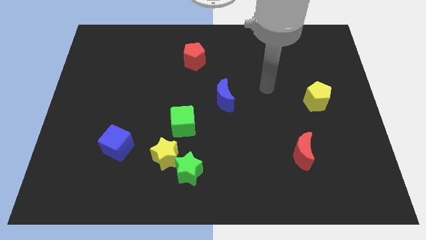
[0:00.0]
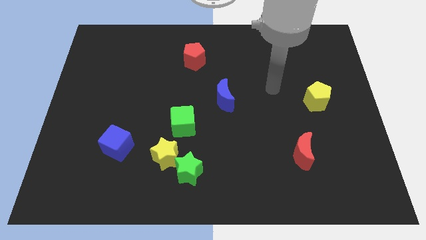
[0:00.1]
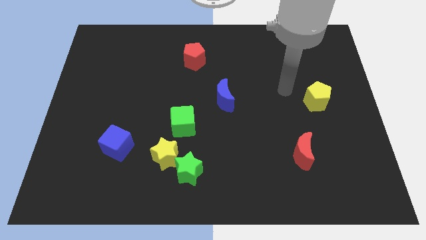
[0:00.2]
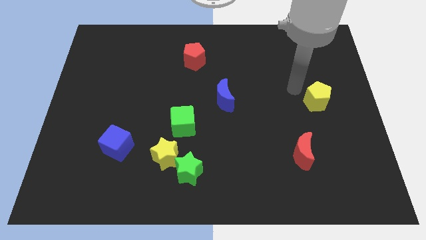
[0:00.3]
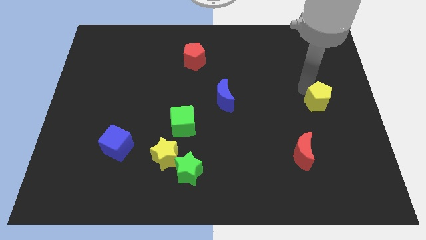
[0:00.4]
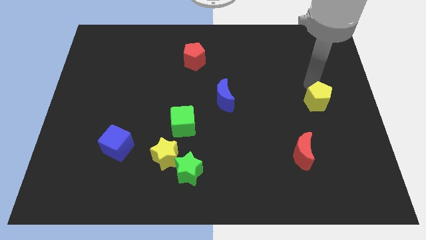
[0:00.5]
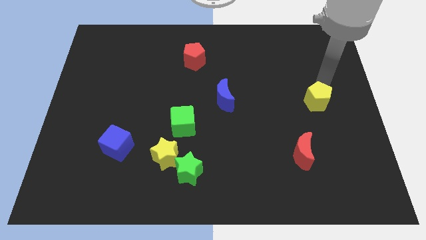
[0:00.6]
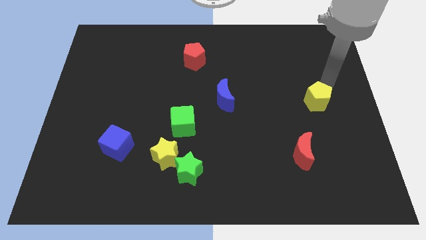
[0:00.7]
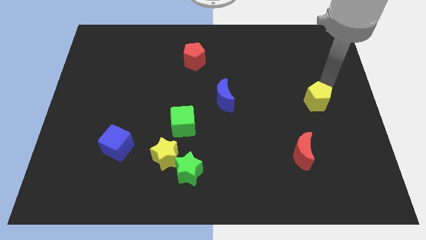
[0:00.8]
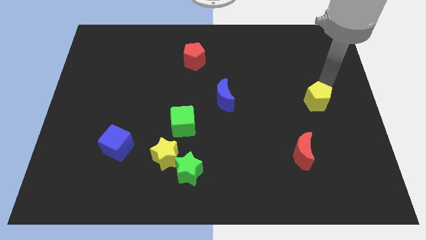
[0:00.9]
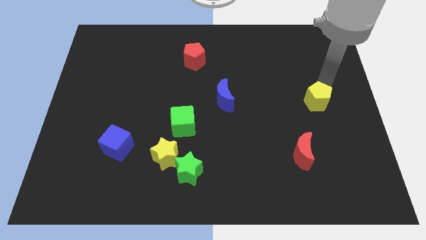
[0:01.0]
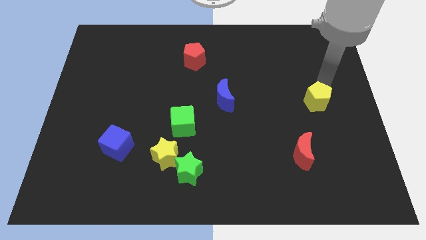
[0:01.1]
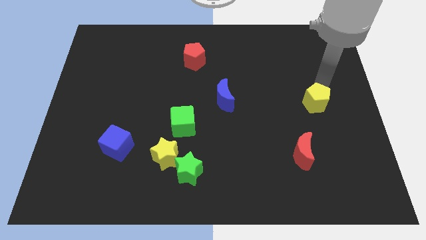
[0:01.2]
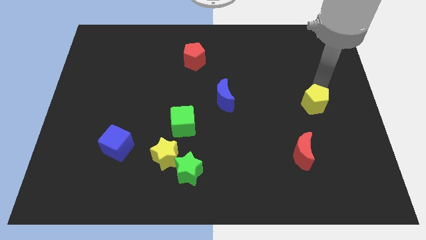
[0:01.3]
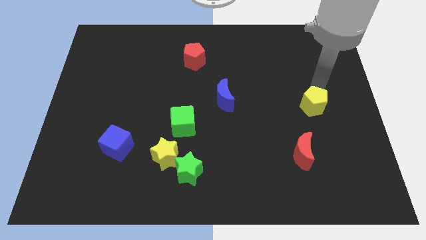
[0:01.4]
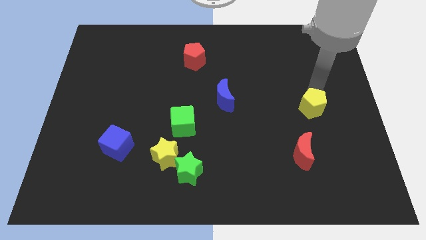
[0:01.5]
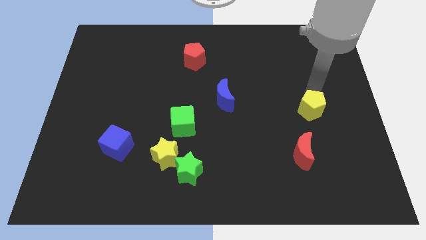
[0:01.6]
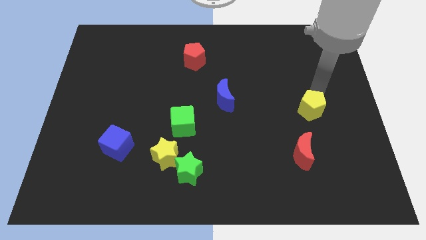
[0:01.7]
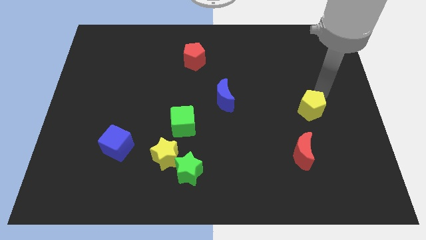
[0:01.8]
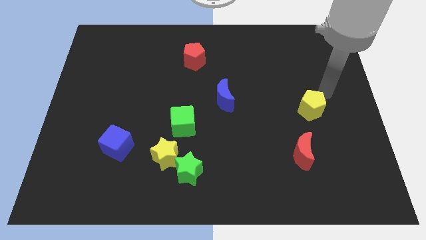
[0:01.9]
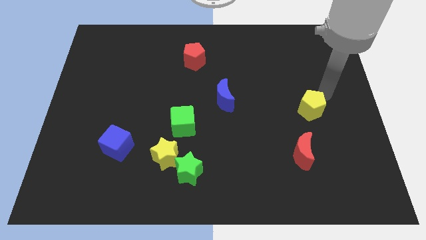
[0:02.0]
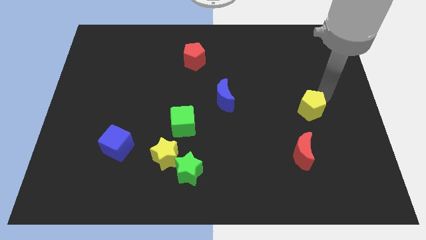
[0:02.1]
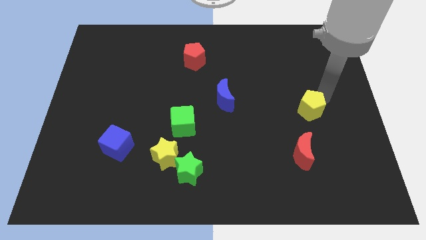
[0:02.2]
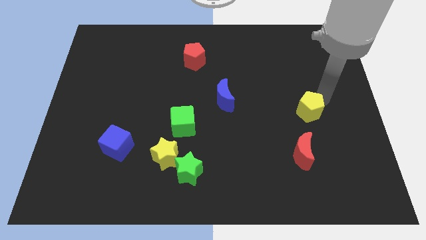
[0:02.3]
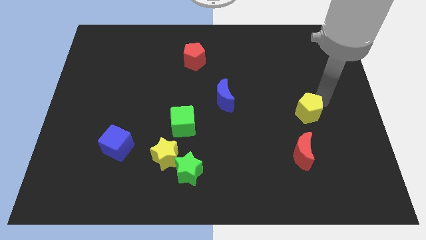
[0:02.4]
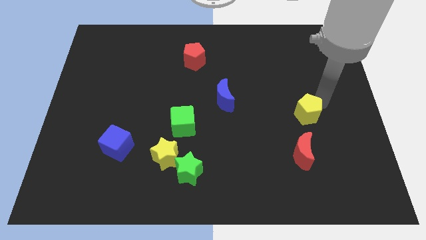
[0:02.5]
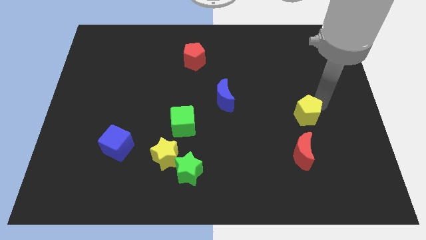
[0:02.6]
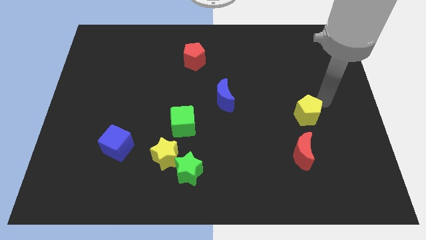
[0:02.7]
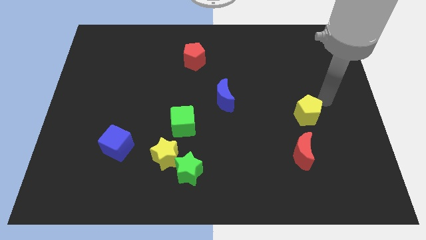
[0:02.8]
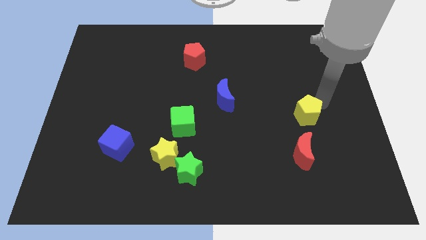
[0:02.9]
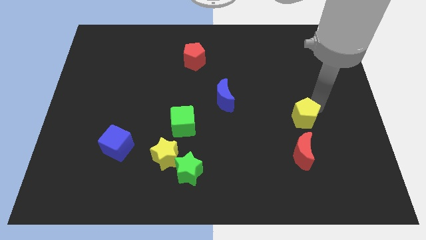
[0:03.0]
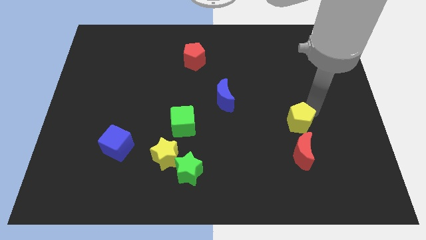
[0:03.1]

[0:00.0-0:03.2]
push the yellow pentagon down and left a little

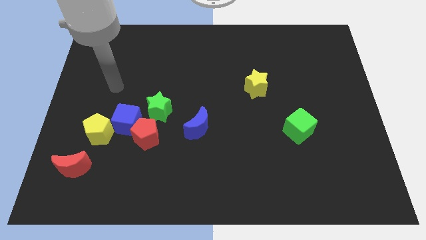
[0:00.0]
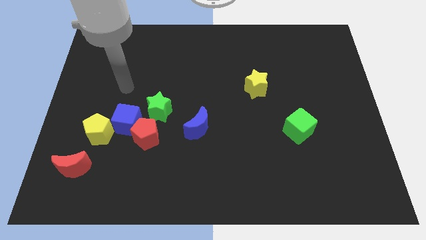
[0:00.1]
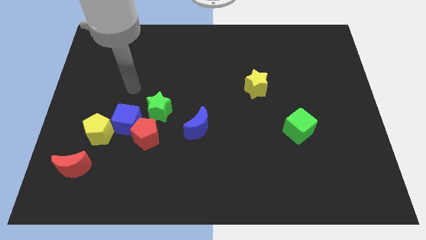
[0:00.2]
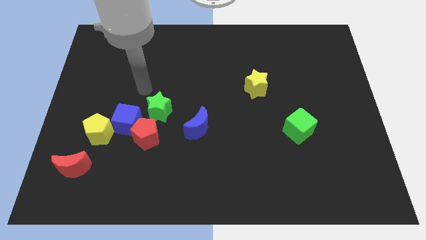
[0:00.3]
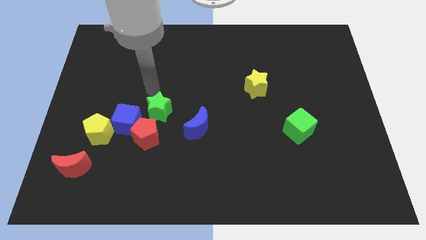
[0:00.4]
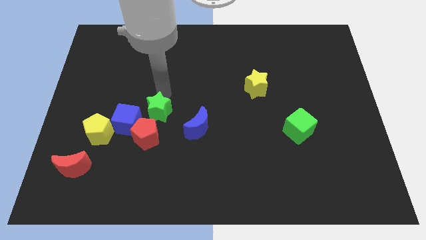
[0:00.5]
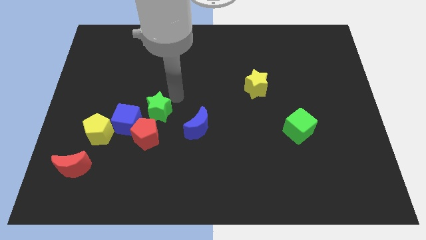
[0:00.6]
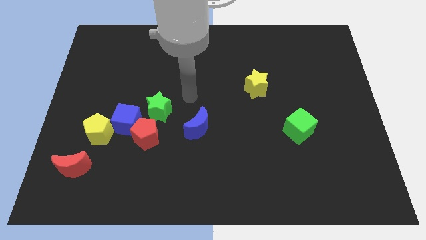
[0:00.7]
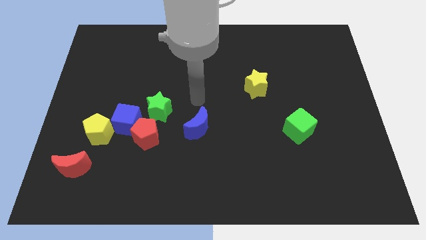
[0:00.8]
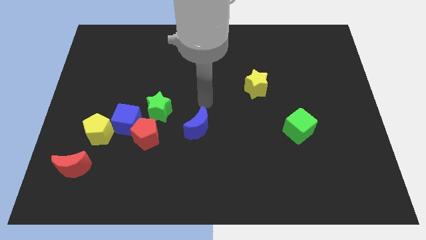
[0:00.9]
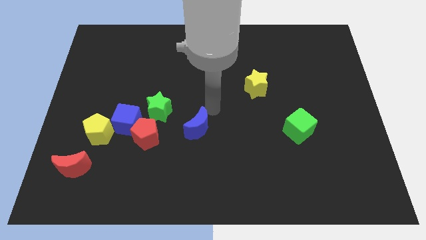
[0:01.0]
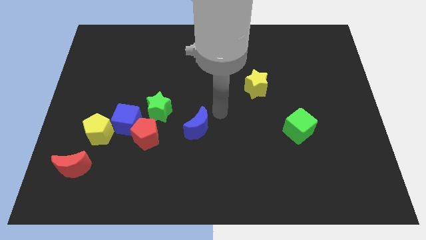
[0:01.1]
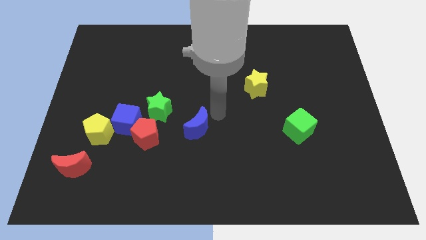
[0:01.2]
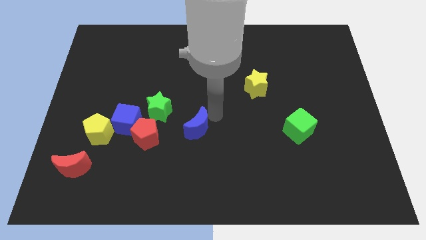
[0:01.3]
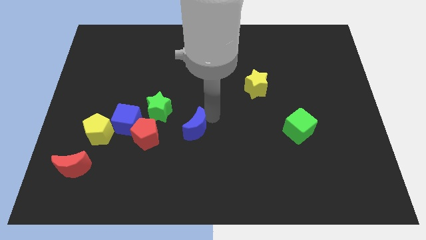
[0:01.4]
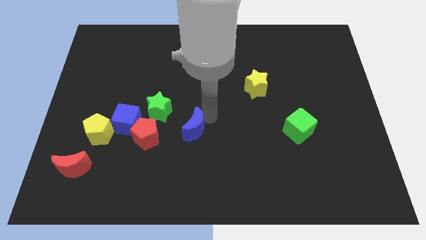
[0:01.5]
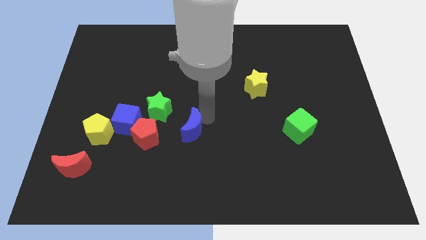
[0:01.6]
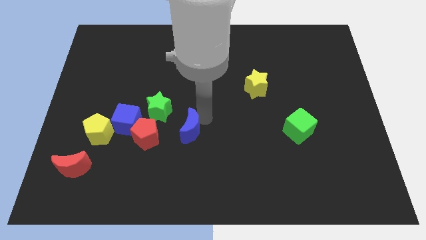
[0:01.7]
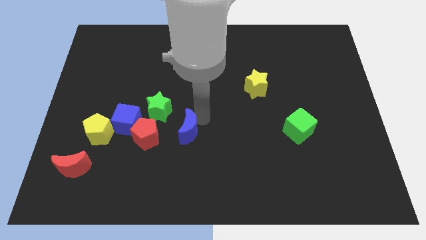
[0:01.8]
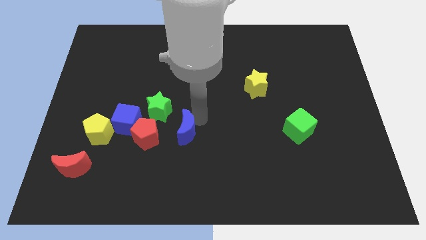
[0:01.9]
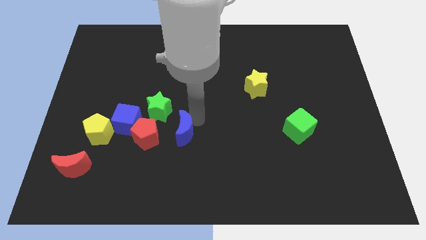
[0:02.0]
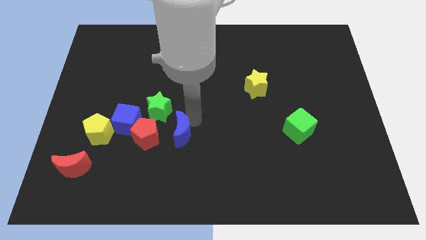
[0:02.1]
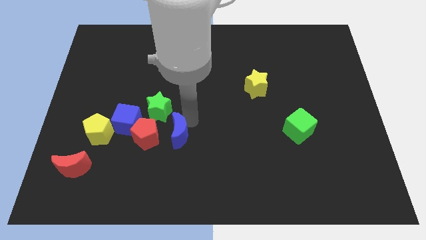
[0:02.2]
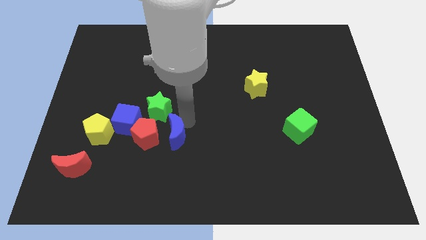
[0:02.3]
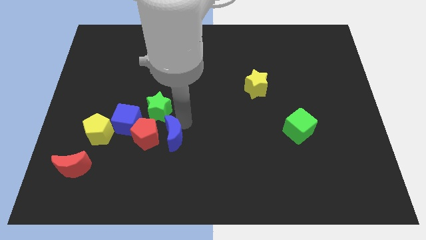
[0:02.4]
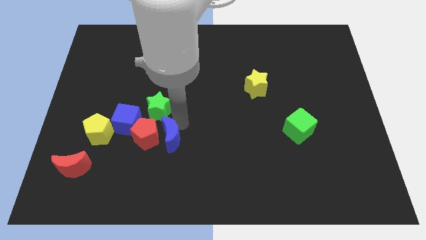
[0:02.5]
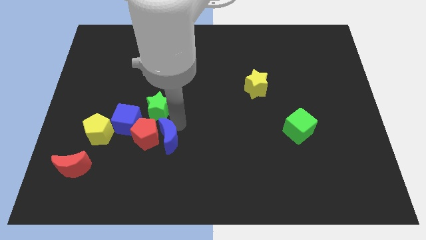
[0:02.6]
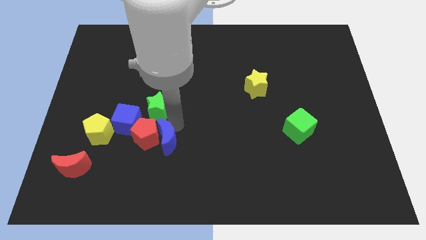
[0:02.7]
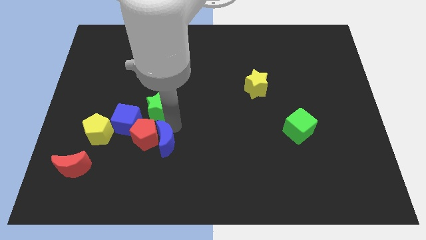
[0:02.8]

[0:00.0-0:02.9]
move the blue moon a little down and to the left

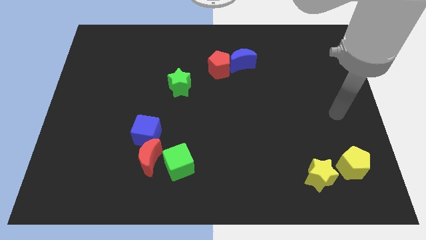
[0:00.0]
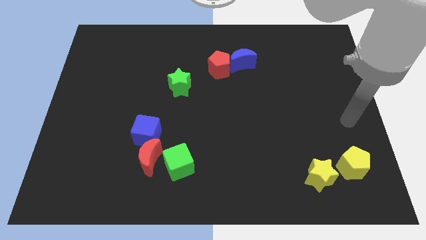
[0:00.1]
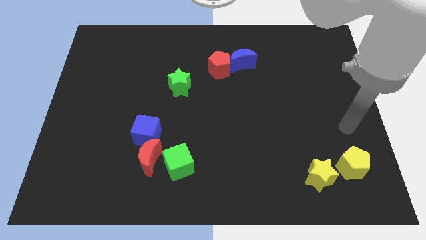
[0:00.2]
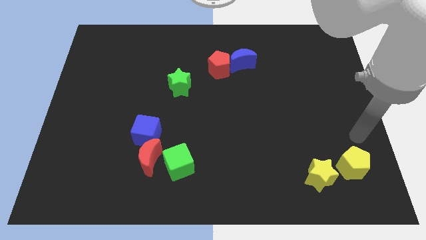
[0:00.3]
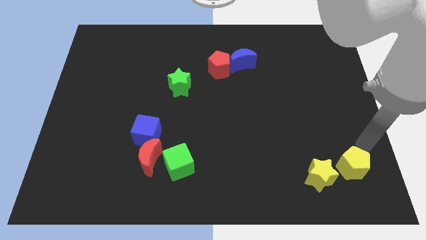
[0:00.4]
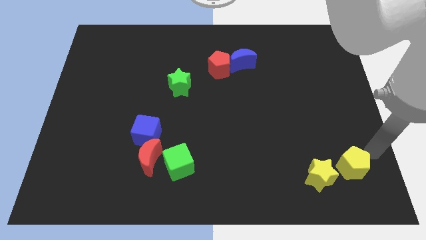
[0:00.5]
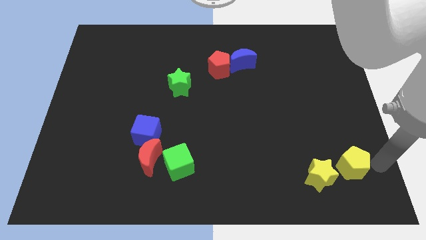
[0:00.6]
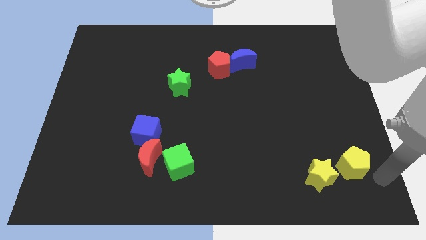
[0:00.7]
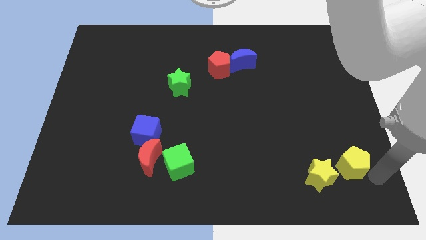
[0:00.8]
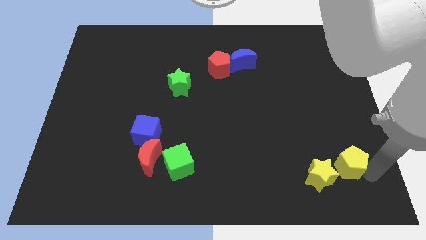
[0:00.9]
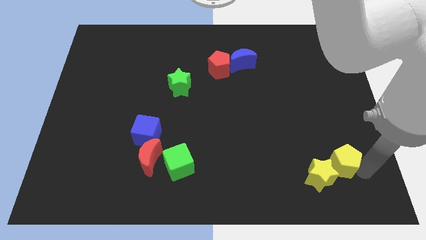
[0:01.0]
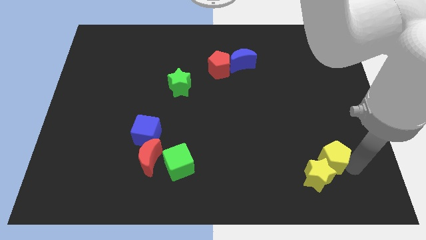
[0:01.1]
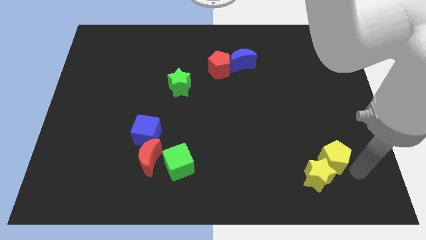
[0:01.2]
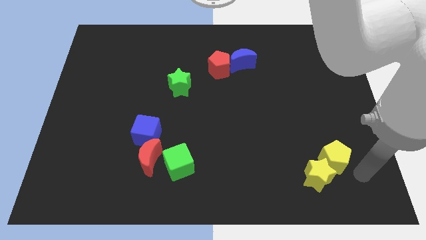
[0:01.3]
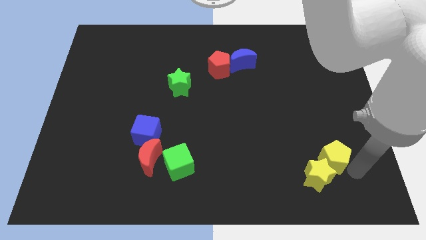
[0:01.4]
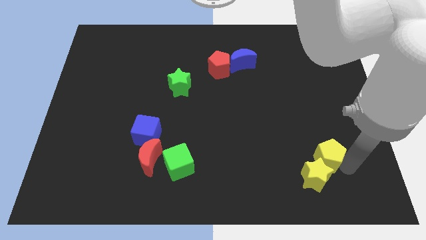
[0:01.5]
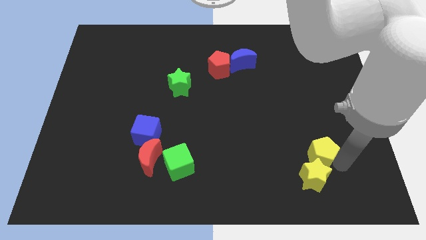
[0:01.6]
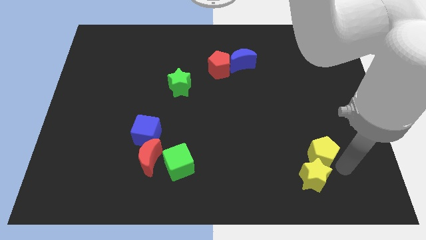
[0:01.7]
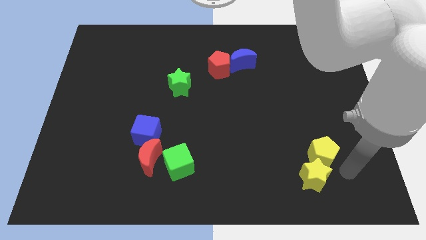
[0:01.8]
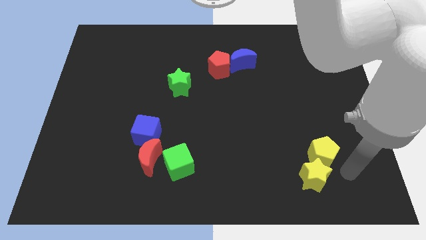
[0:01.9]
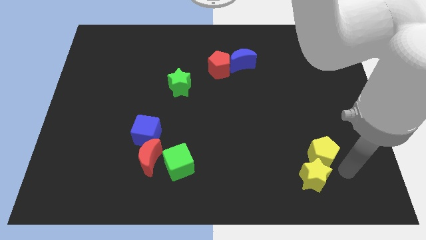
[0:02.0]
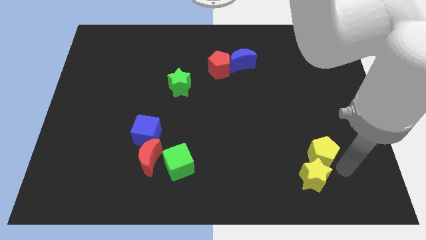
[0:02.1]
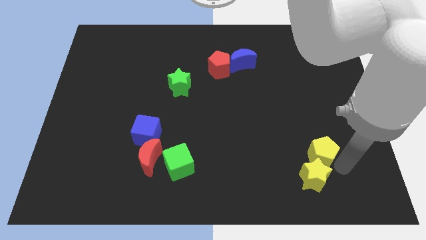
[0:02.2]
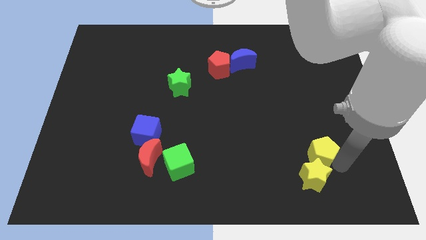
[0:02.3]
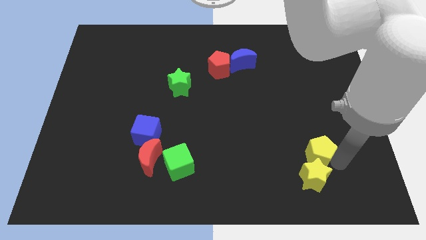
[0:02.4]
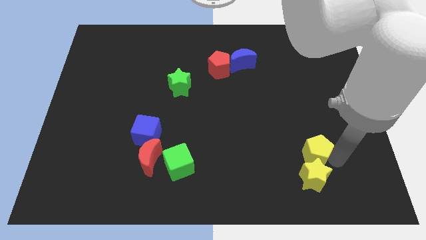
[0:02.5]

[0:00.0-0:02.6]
slightly push the yellow pentagon upwards and left
